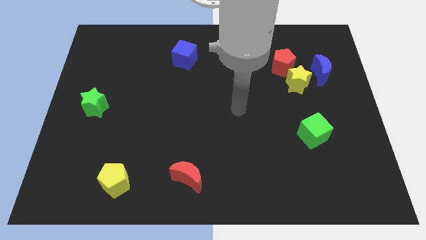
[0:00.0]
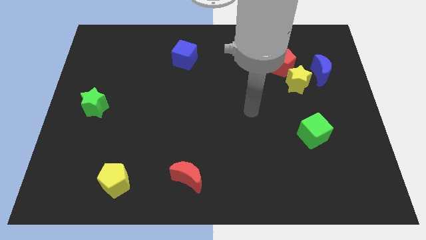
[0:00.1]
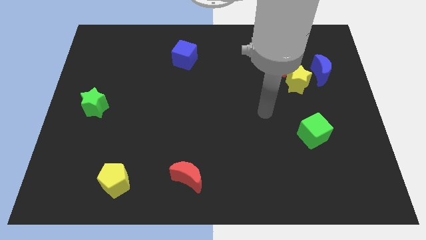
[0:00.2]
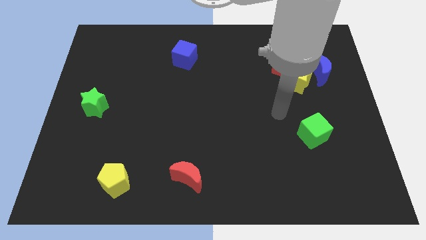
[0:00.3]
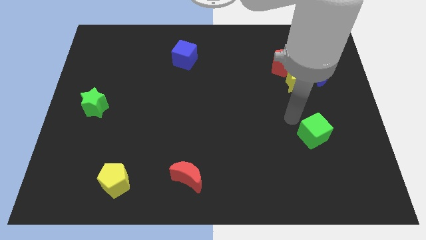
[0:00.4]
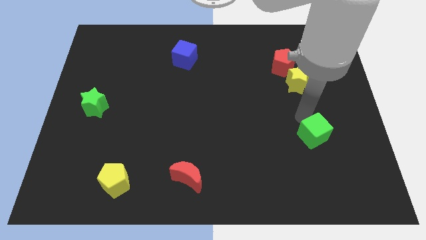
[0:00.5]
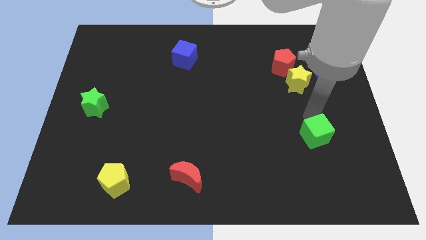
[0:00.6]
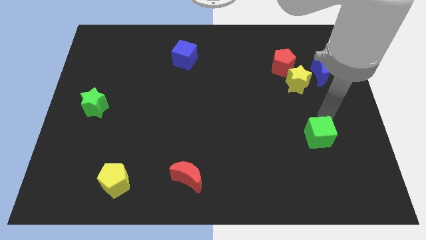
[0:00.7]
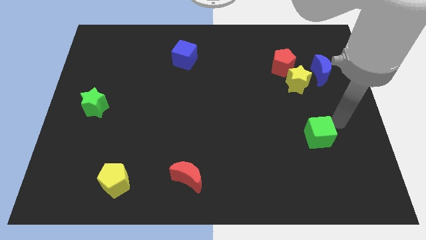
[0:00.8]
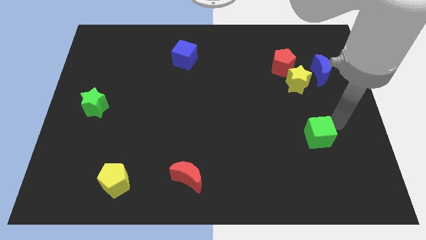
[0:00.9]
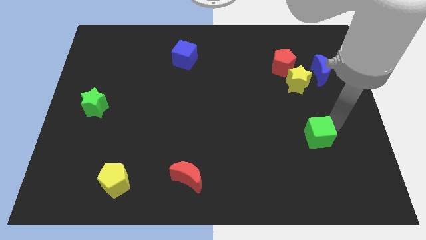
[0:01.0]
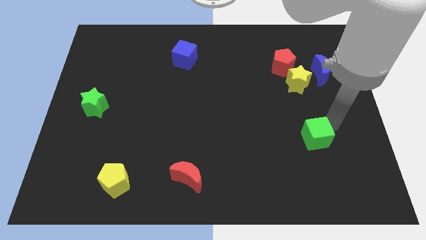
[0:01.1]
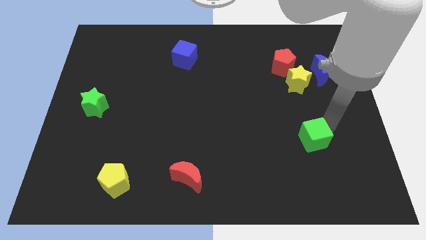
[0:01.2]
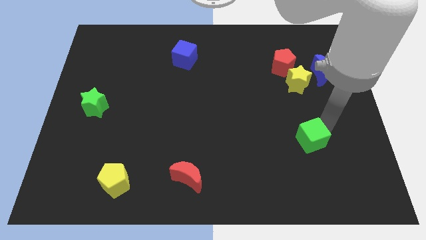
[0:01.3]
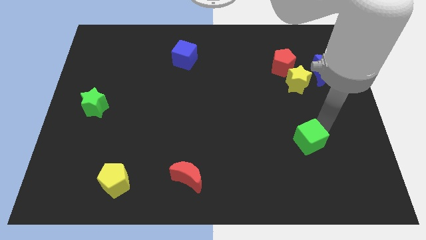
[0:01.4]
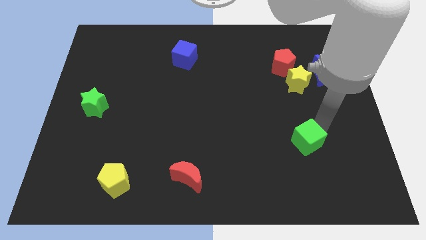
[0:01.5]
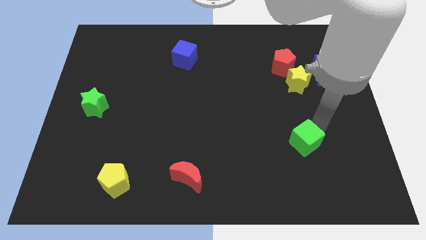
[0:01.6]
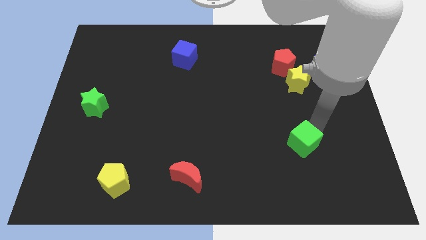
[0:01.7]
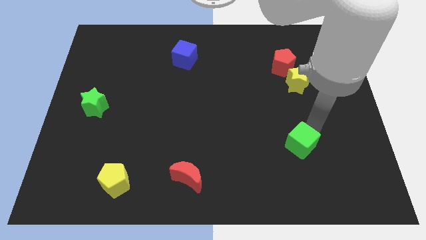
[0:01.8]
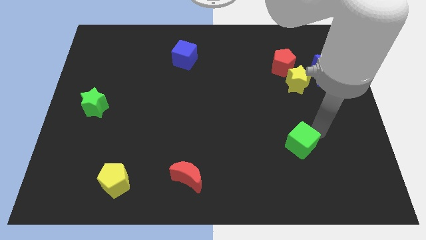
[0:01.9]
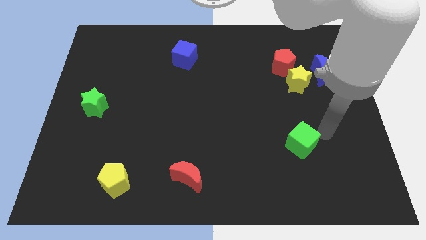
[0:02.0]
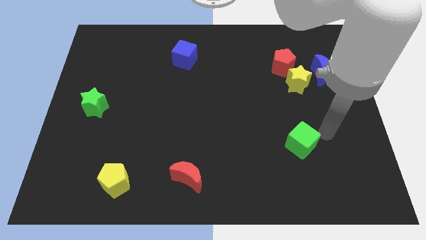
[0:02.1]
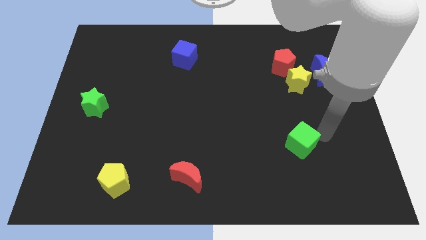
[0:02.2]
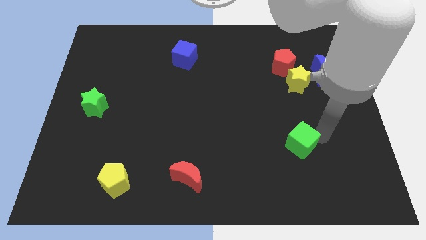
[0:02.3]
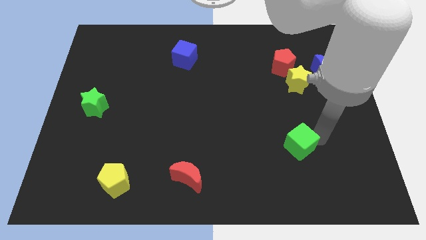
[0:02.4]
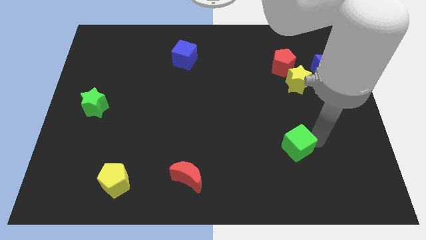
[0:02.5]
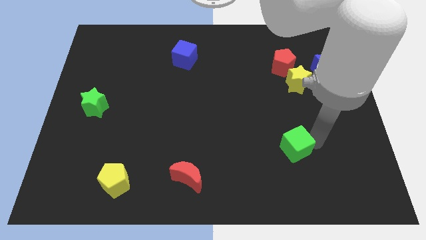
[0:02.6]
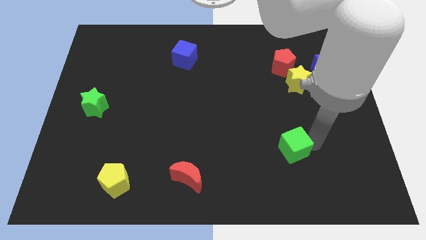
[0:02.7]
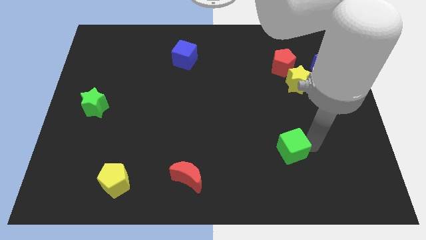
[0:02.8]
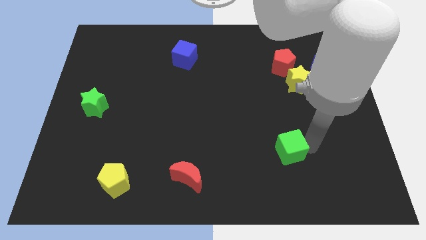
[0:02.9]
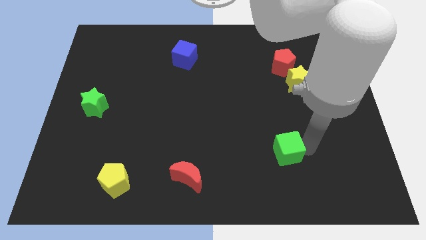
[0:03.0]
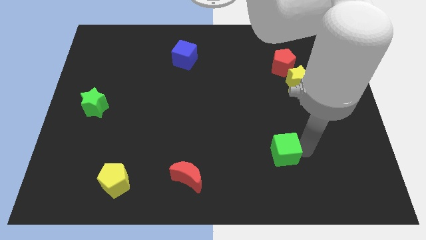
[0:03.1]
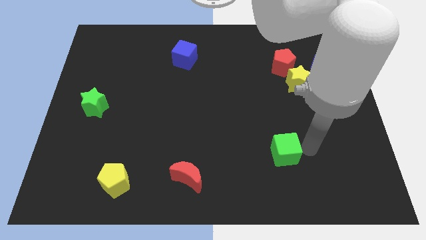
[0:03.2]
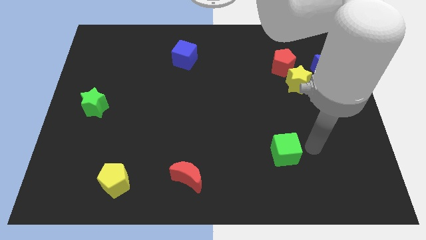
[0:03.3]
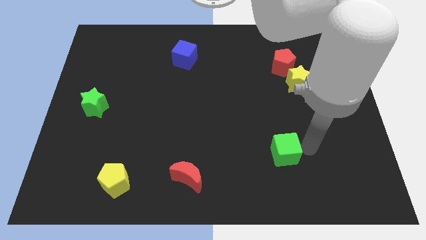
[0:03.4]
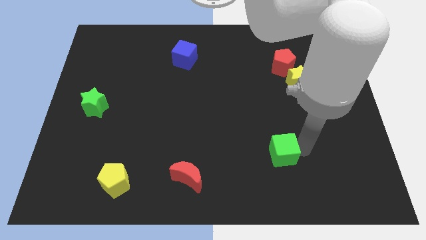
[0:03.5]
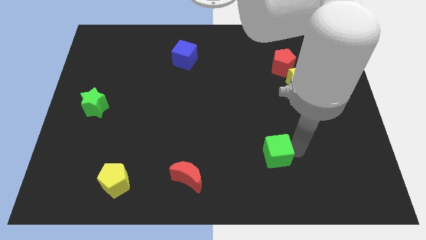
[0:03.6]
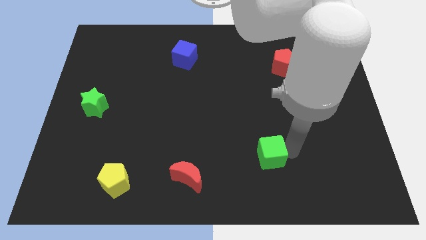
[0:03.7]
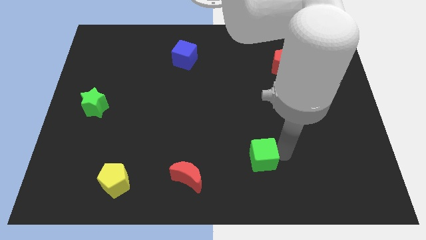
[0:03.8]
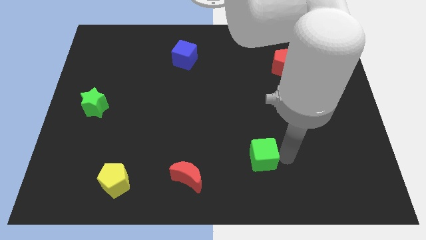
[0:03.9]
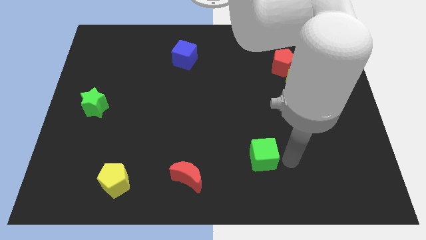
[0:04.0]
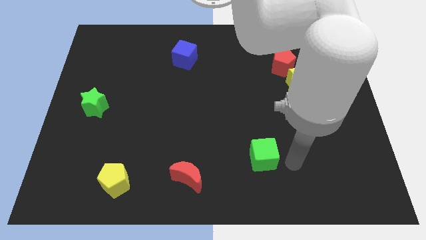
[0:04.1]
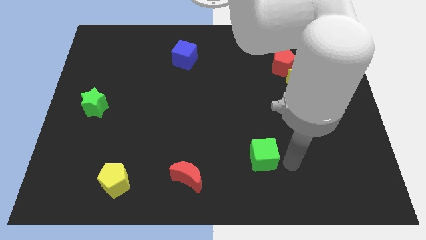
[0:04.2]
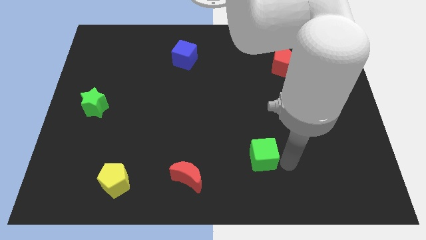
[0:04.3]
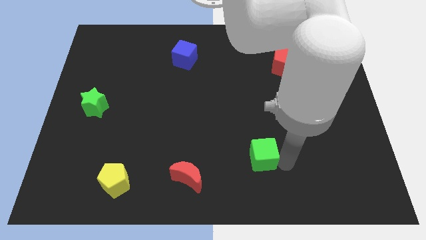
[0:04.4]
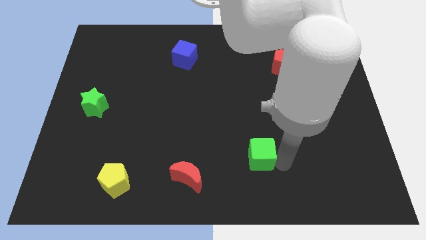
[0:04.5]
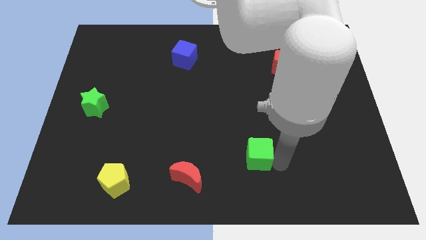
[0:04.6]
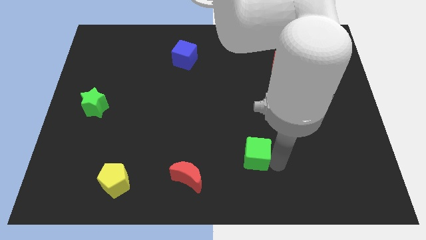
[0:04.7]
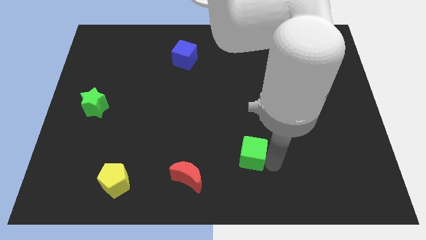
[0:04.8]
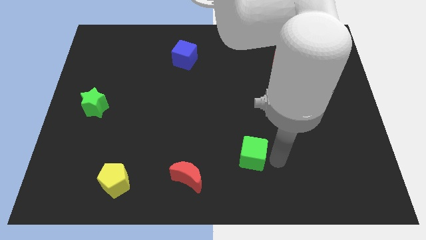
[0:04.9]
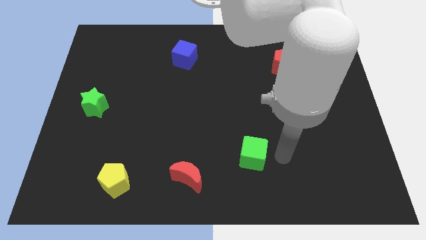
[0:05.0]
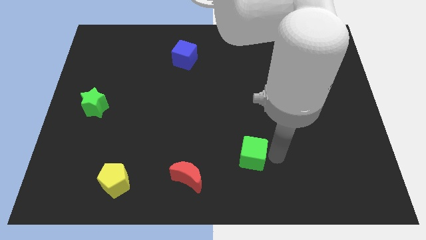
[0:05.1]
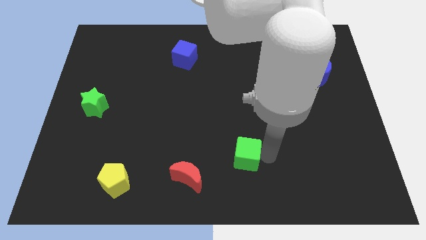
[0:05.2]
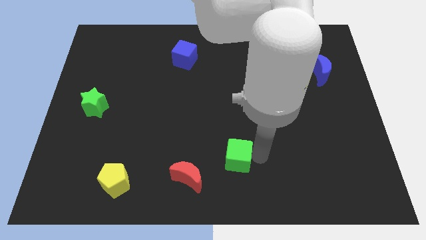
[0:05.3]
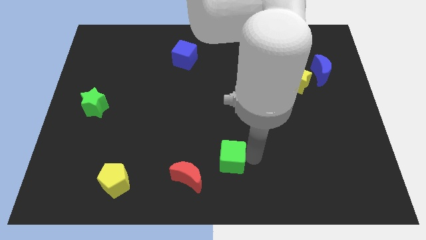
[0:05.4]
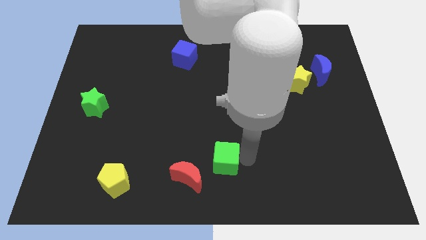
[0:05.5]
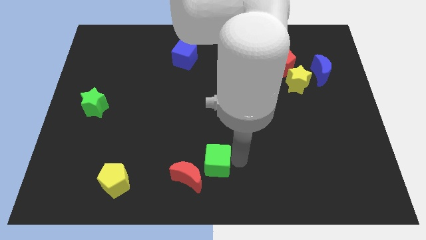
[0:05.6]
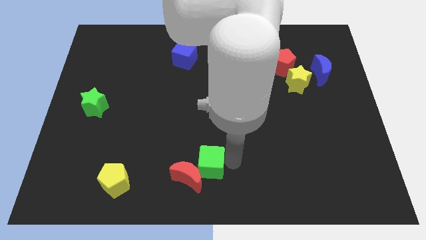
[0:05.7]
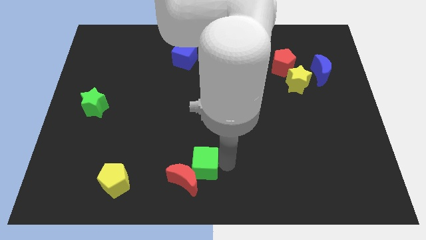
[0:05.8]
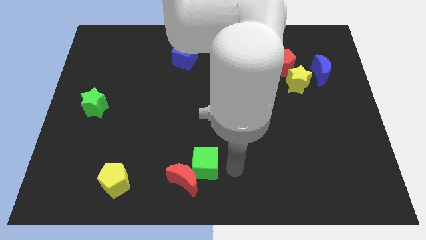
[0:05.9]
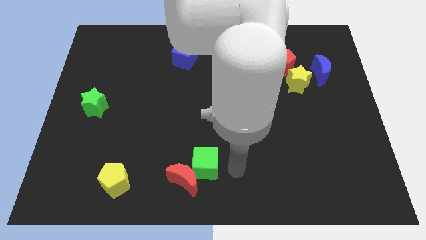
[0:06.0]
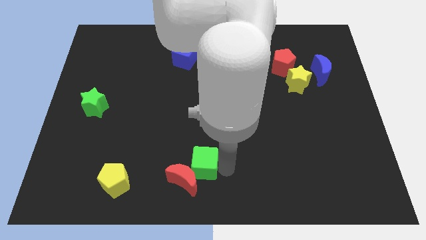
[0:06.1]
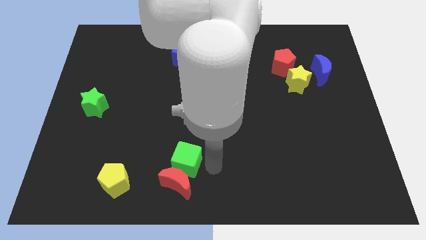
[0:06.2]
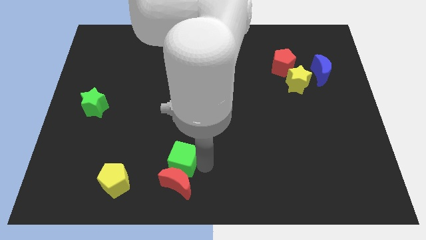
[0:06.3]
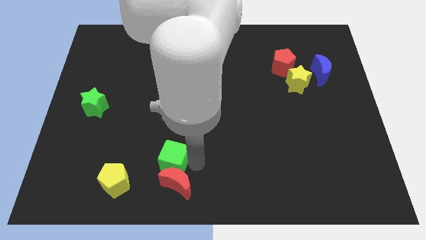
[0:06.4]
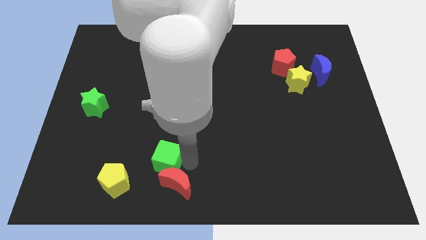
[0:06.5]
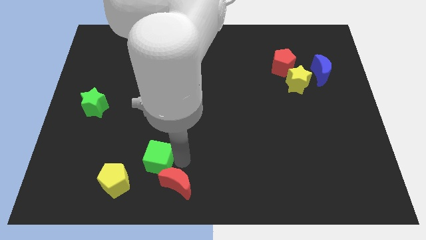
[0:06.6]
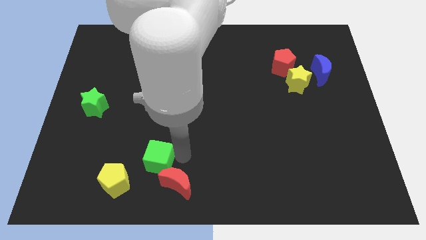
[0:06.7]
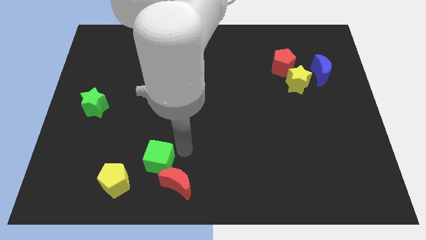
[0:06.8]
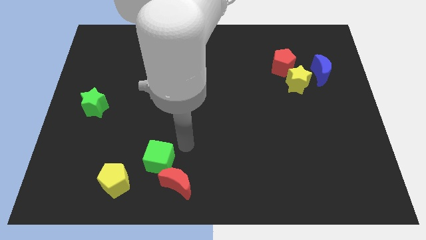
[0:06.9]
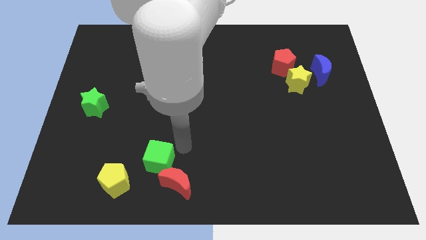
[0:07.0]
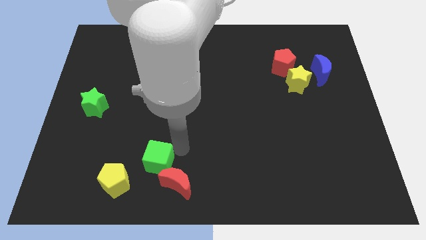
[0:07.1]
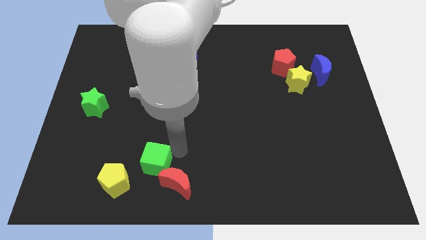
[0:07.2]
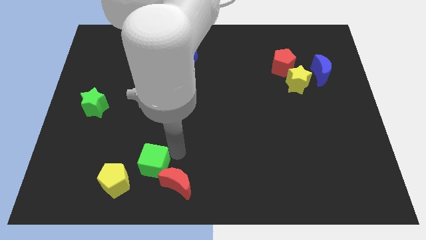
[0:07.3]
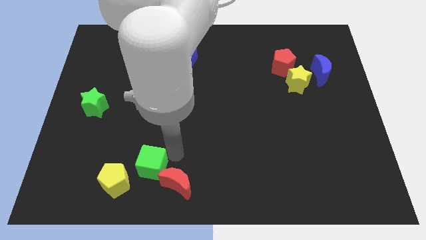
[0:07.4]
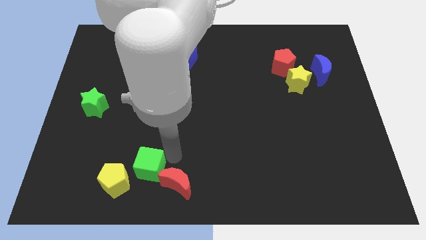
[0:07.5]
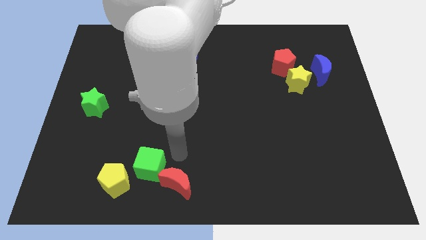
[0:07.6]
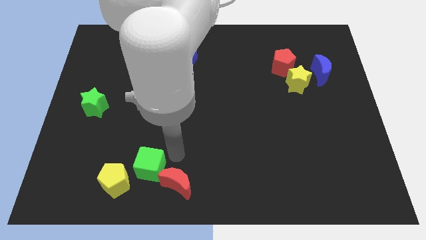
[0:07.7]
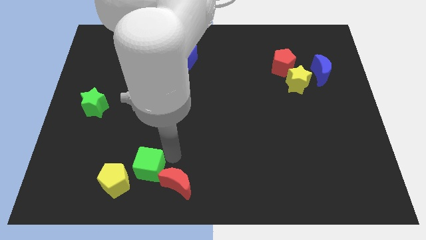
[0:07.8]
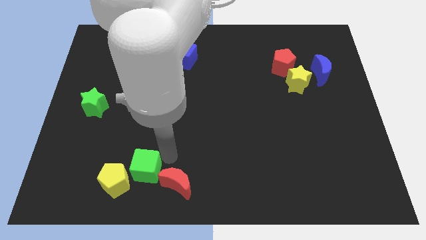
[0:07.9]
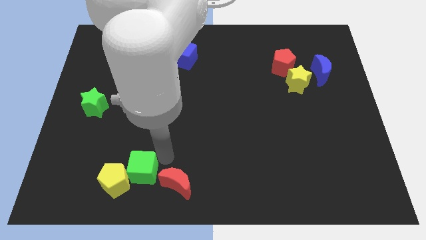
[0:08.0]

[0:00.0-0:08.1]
push the green cube to the yellow pentagon
